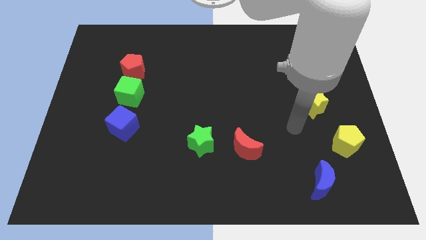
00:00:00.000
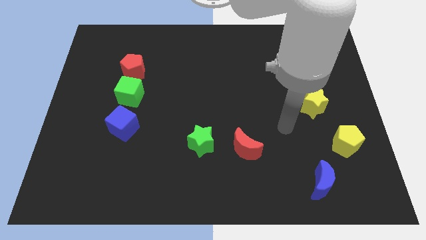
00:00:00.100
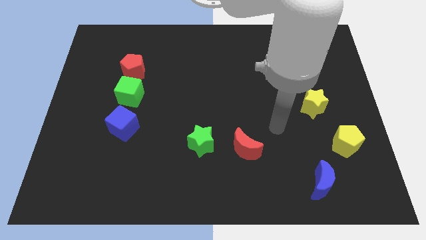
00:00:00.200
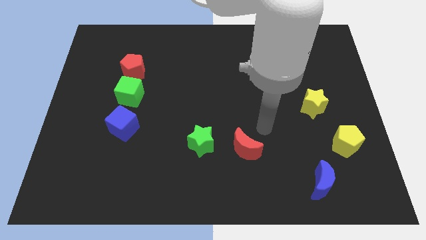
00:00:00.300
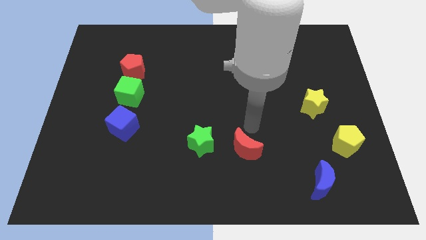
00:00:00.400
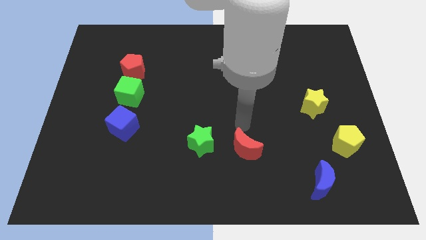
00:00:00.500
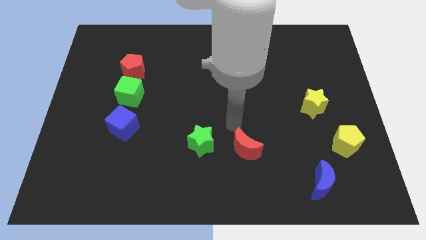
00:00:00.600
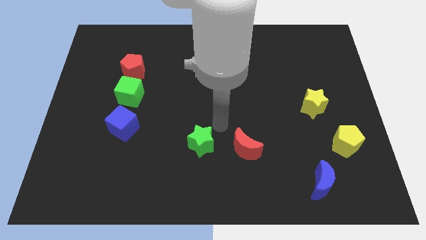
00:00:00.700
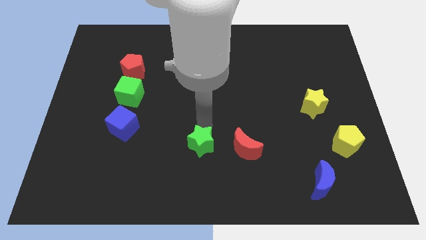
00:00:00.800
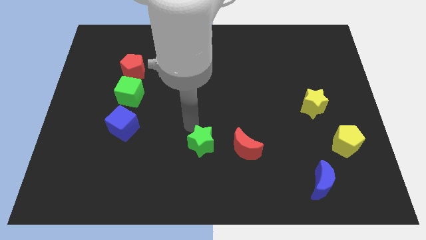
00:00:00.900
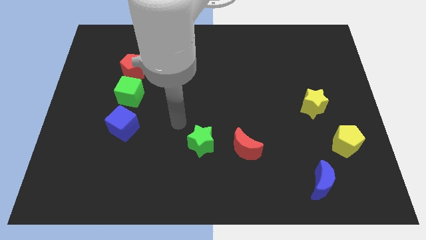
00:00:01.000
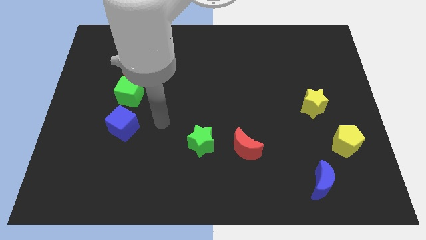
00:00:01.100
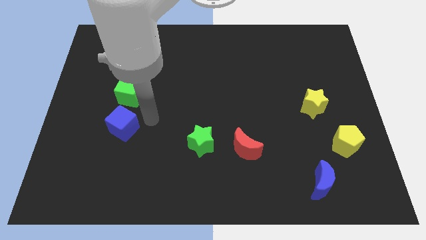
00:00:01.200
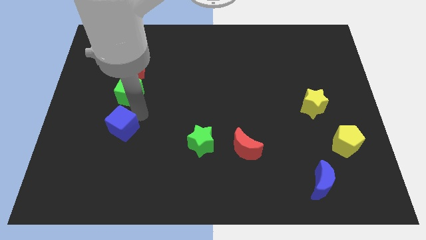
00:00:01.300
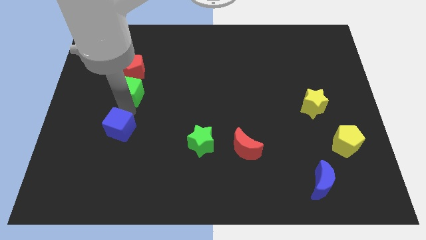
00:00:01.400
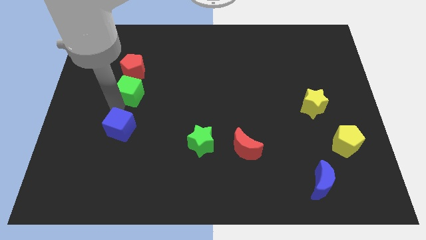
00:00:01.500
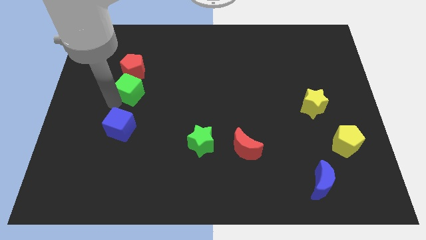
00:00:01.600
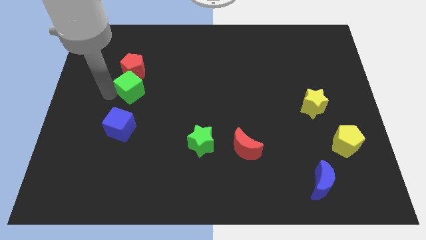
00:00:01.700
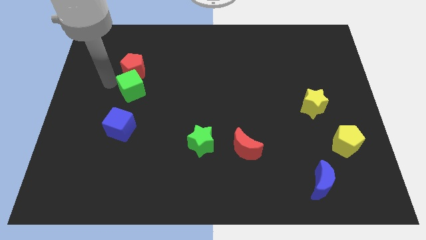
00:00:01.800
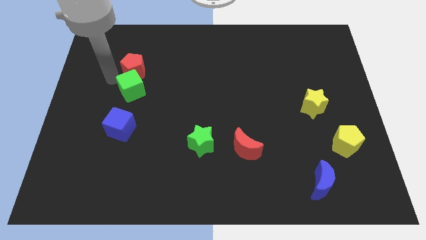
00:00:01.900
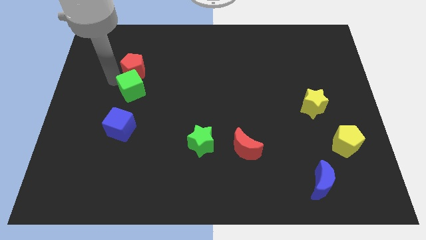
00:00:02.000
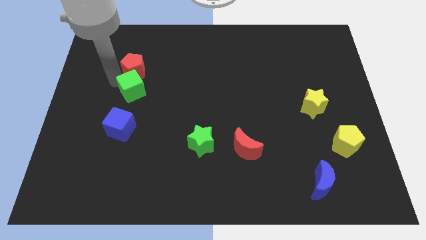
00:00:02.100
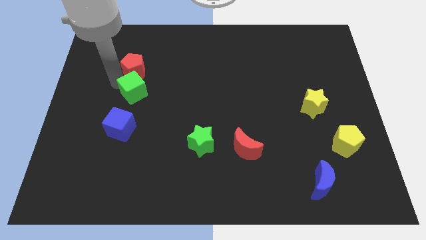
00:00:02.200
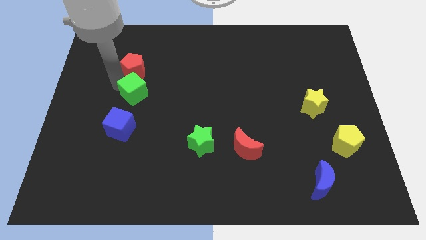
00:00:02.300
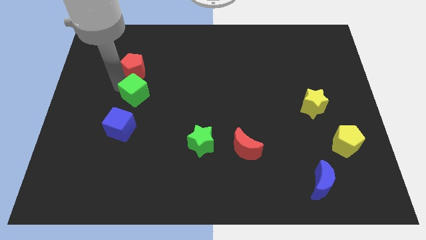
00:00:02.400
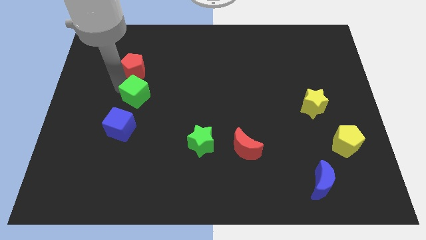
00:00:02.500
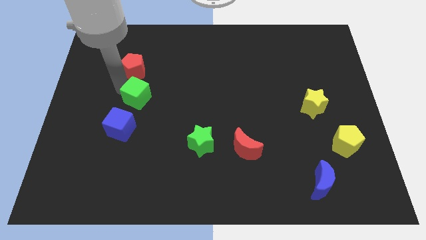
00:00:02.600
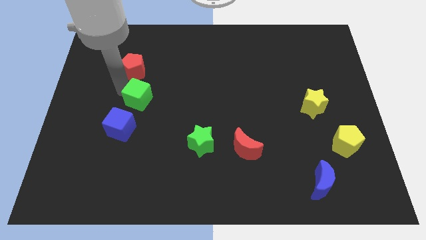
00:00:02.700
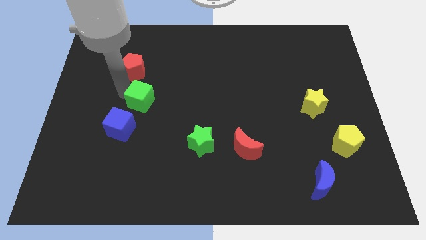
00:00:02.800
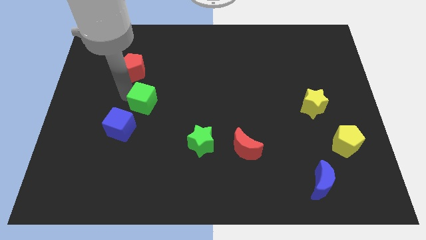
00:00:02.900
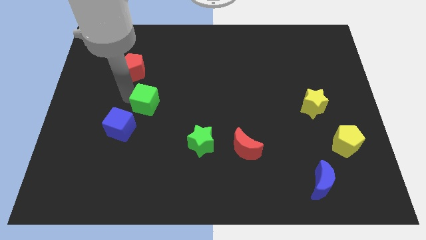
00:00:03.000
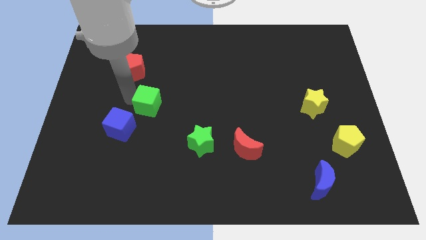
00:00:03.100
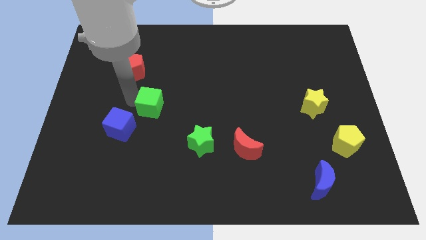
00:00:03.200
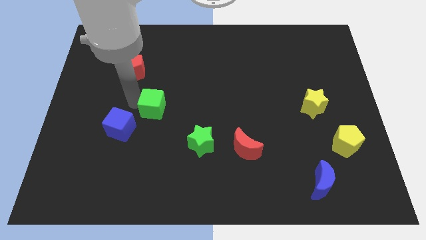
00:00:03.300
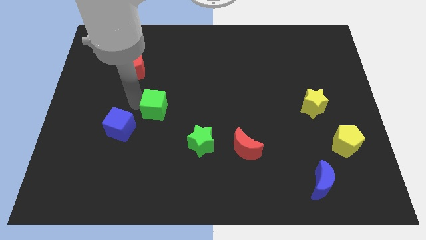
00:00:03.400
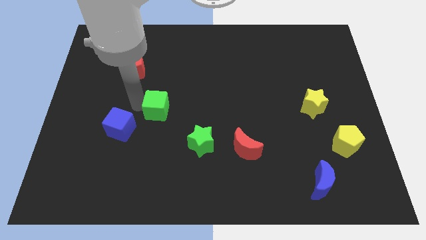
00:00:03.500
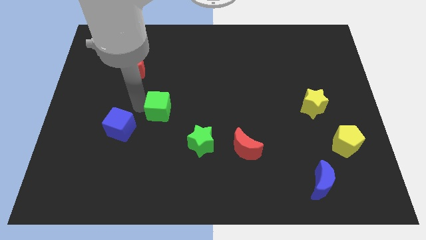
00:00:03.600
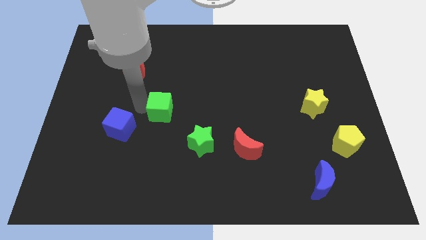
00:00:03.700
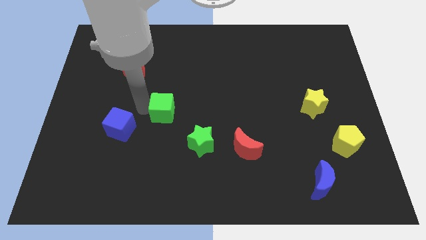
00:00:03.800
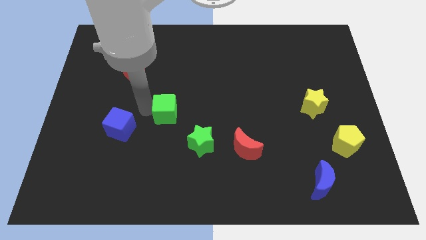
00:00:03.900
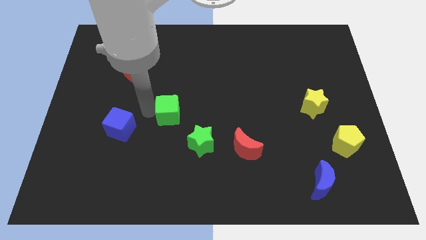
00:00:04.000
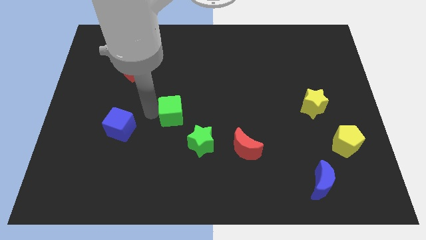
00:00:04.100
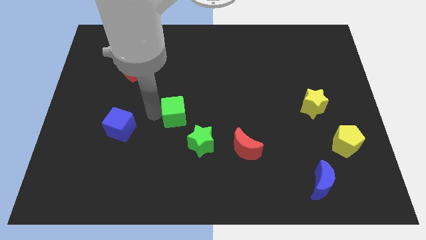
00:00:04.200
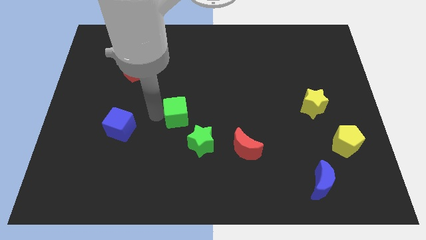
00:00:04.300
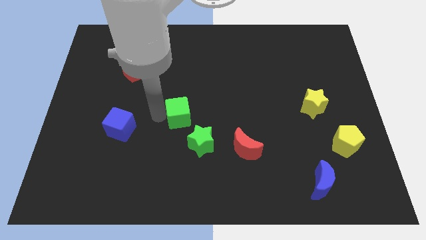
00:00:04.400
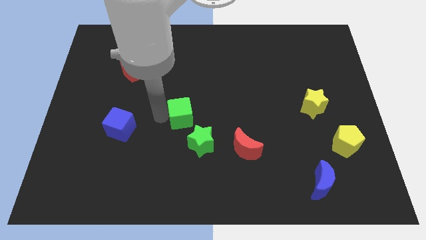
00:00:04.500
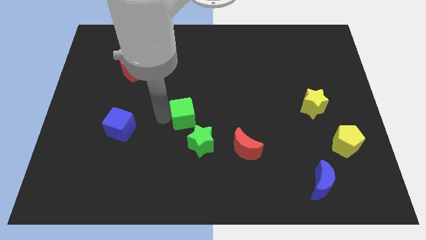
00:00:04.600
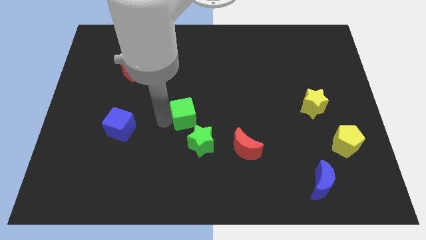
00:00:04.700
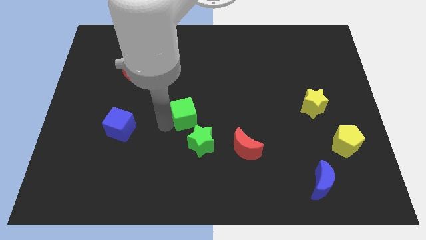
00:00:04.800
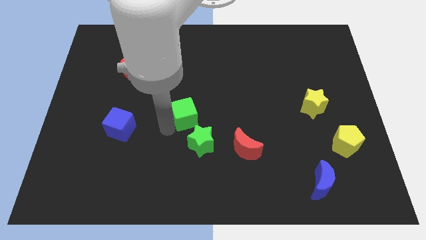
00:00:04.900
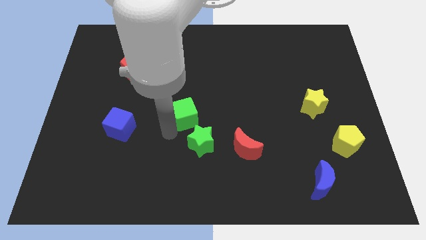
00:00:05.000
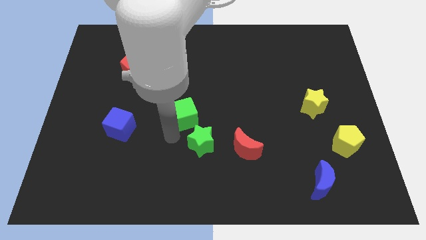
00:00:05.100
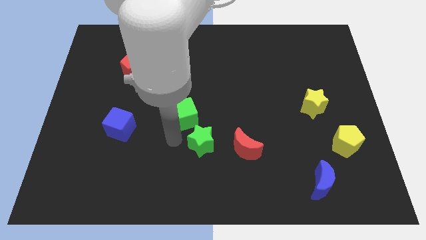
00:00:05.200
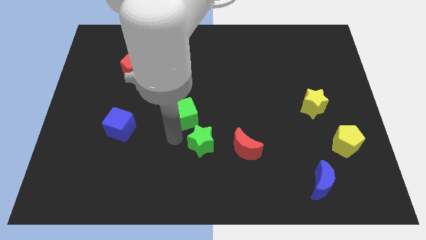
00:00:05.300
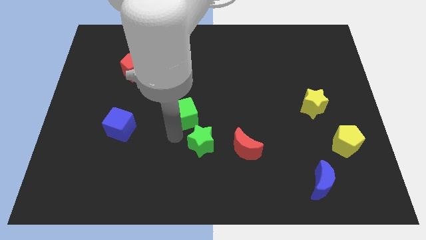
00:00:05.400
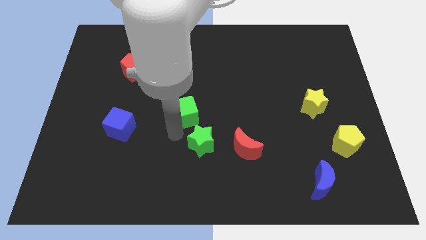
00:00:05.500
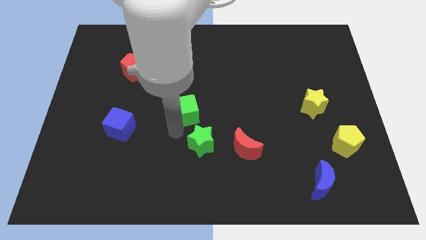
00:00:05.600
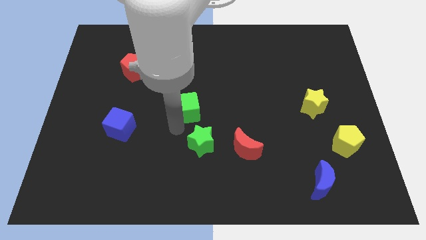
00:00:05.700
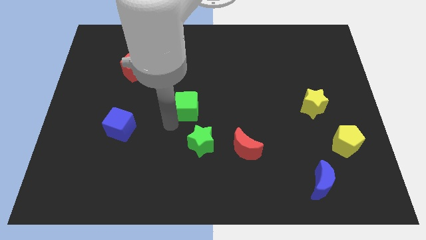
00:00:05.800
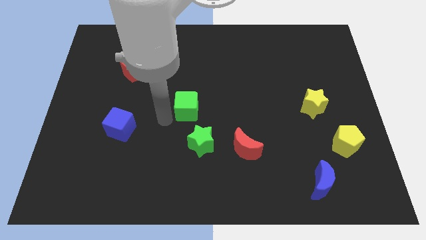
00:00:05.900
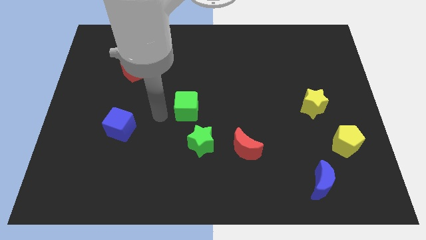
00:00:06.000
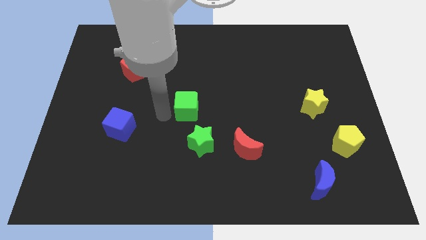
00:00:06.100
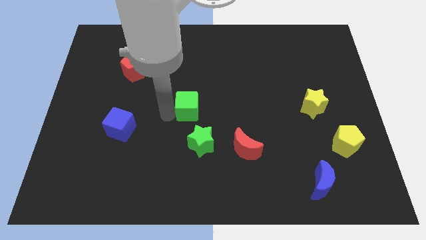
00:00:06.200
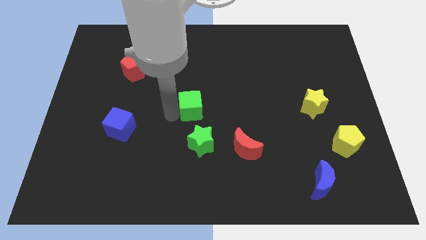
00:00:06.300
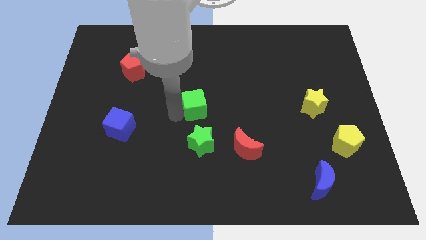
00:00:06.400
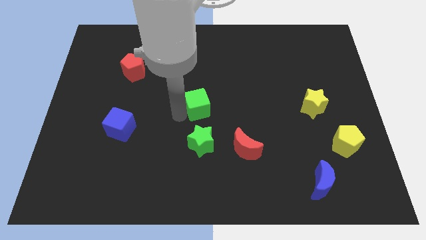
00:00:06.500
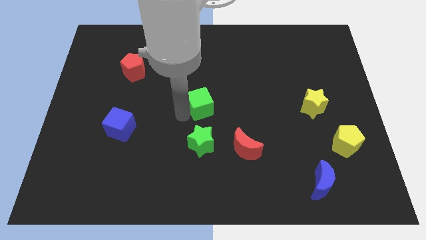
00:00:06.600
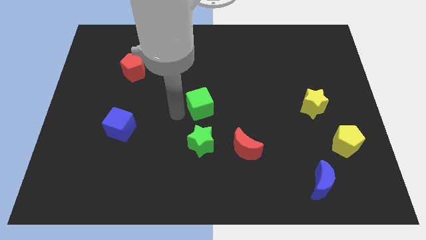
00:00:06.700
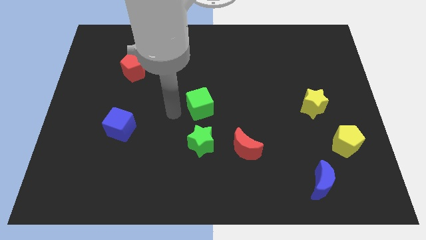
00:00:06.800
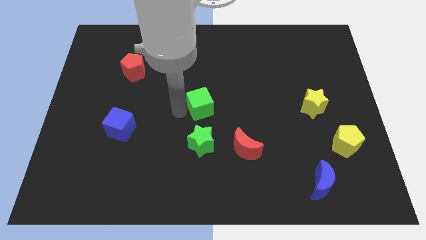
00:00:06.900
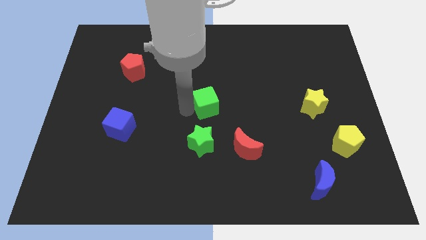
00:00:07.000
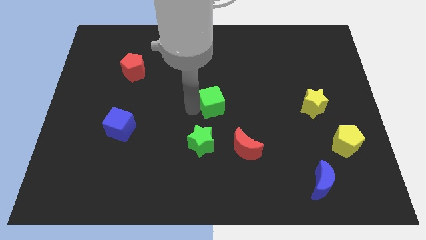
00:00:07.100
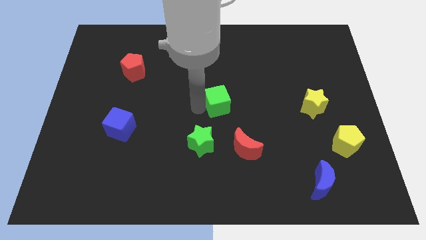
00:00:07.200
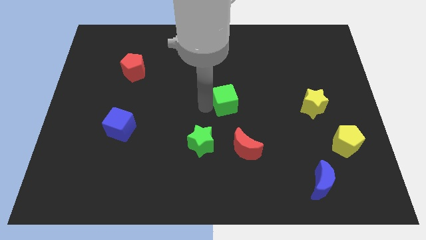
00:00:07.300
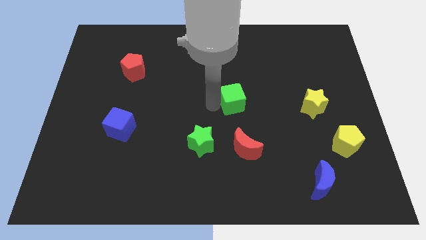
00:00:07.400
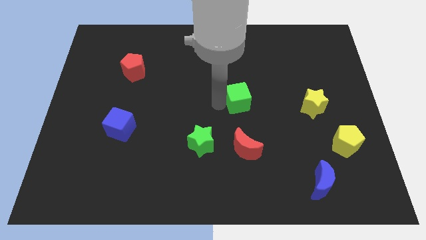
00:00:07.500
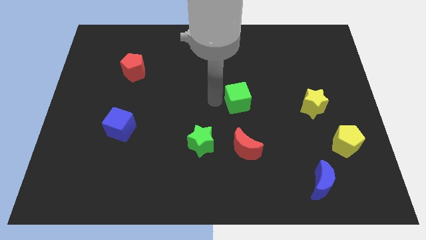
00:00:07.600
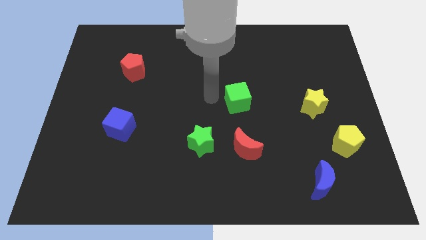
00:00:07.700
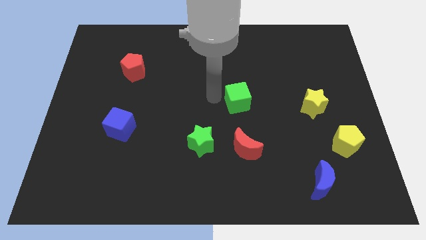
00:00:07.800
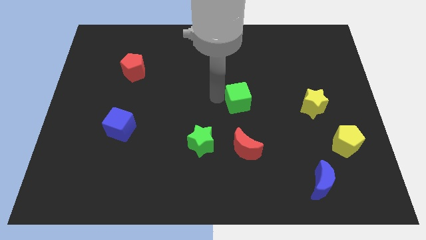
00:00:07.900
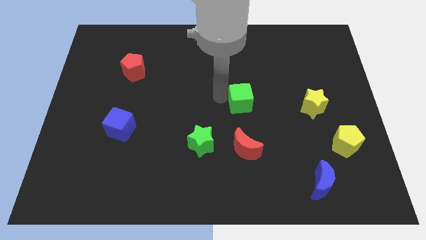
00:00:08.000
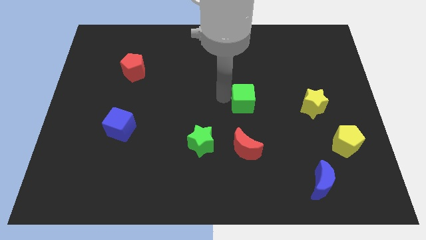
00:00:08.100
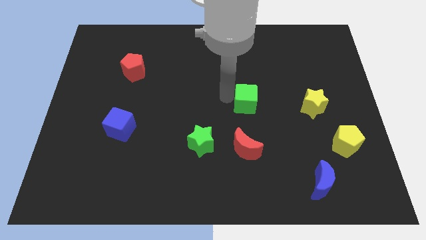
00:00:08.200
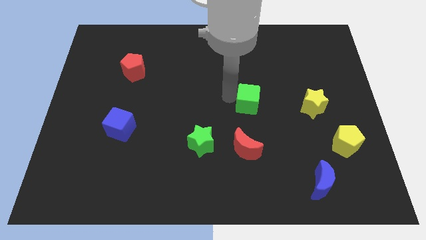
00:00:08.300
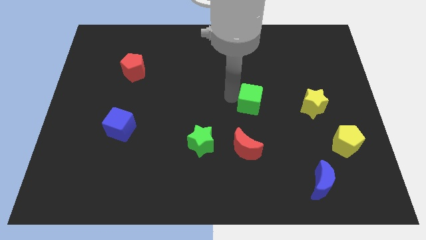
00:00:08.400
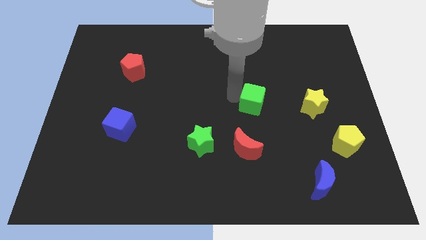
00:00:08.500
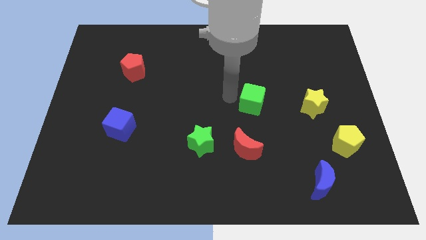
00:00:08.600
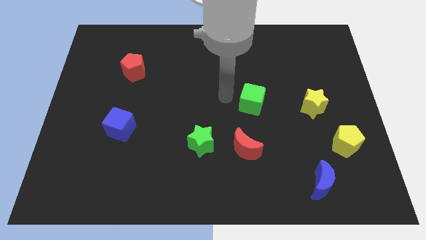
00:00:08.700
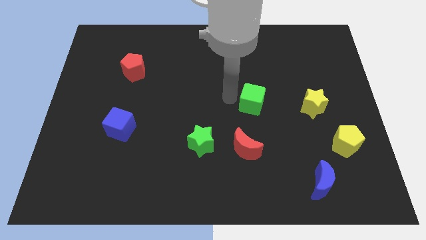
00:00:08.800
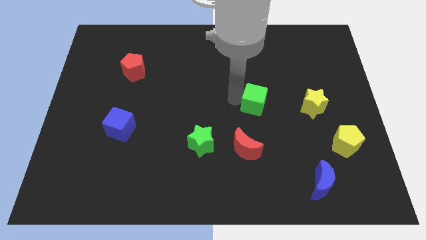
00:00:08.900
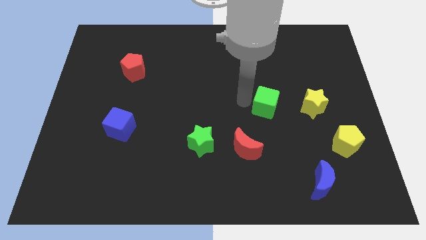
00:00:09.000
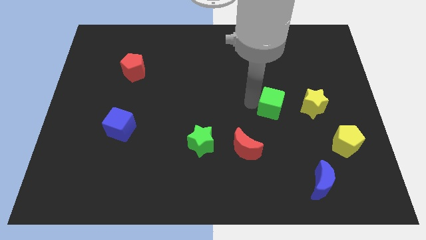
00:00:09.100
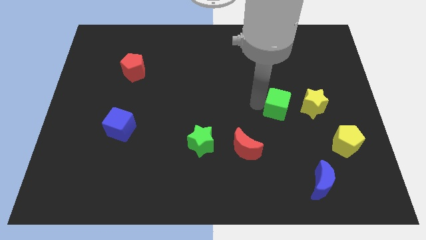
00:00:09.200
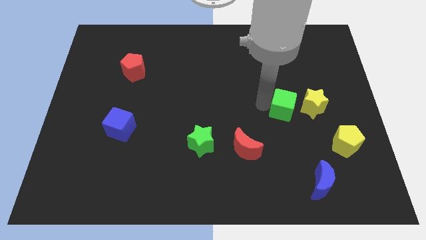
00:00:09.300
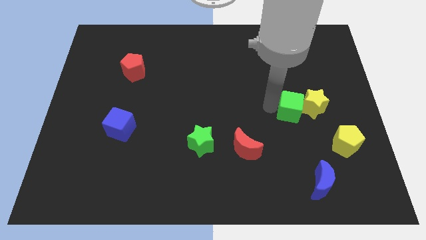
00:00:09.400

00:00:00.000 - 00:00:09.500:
push the green cube towards the yellow star
